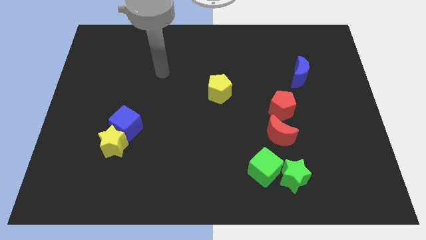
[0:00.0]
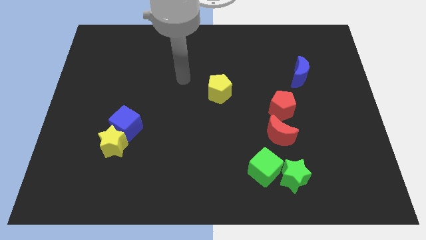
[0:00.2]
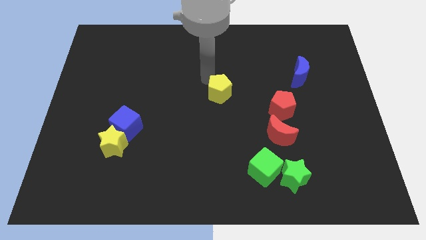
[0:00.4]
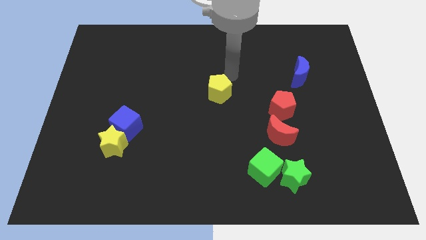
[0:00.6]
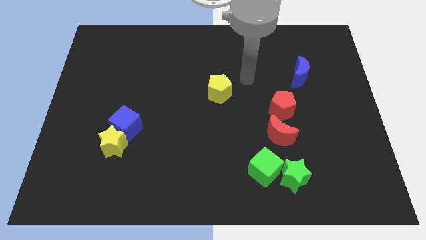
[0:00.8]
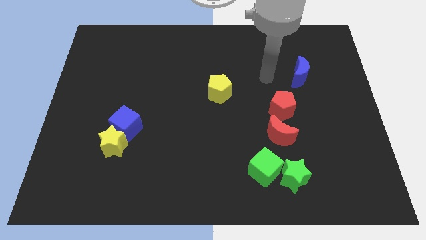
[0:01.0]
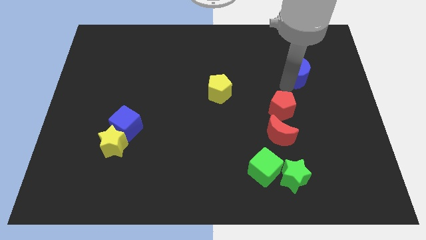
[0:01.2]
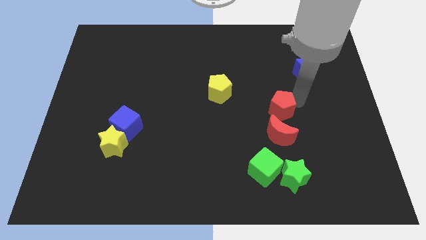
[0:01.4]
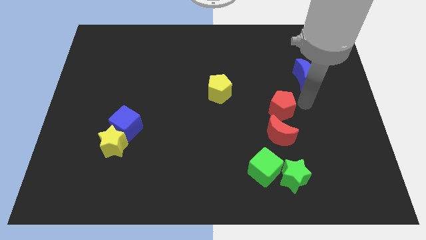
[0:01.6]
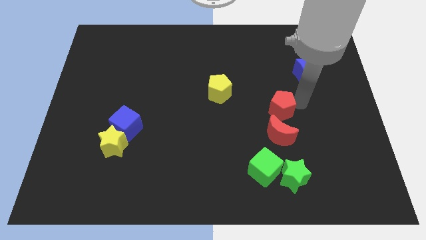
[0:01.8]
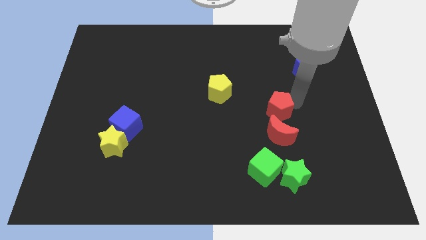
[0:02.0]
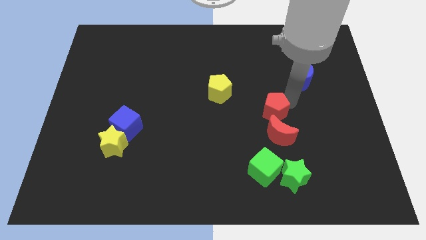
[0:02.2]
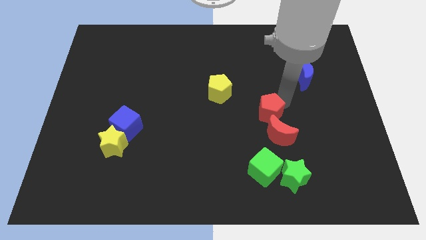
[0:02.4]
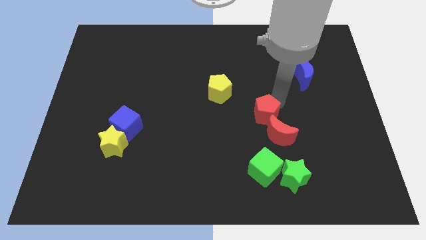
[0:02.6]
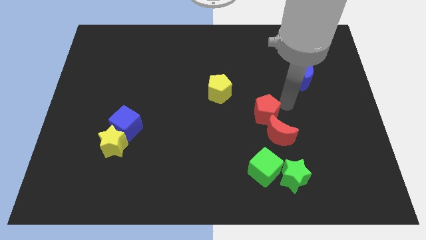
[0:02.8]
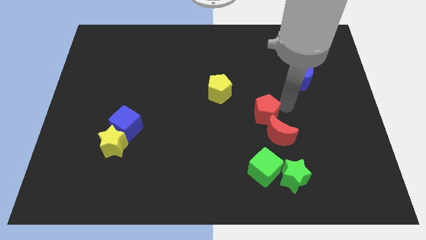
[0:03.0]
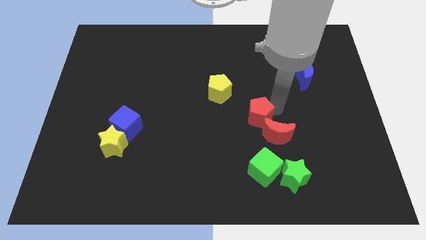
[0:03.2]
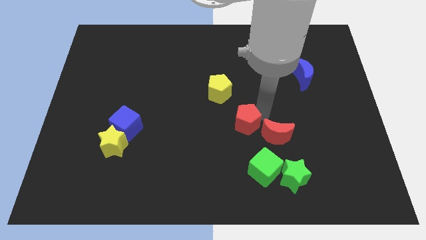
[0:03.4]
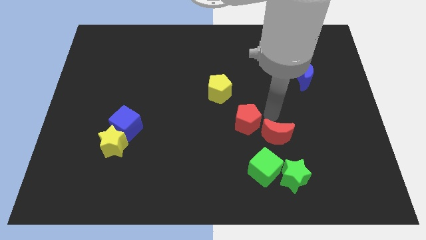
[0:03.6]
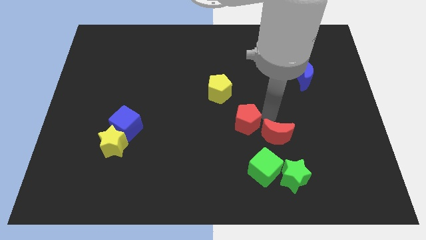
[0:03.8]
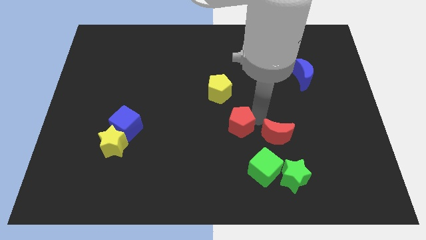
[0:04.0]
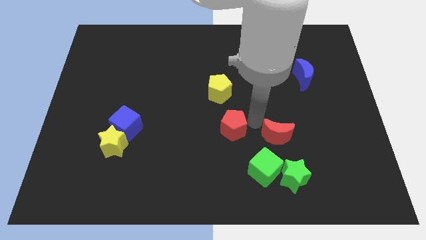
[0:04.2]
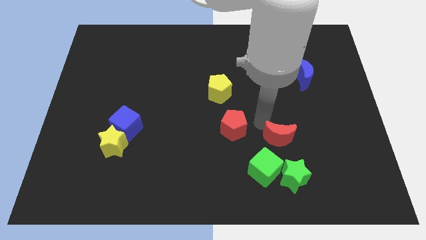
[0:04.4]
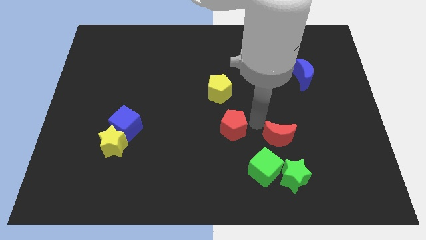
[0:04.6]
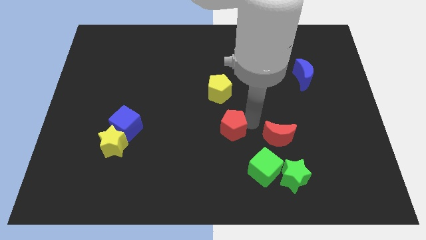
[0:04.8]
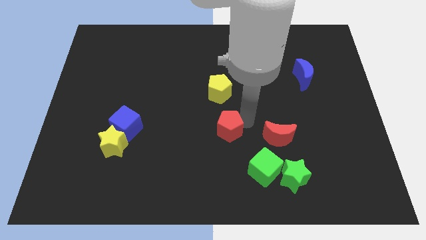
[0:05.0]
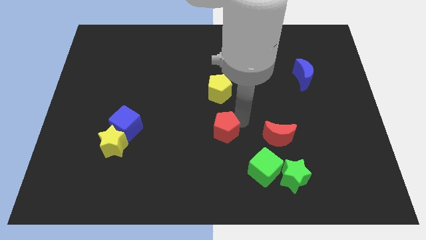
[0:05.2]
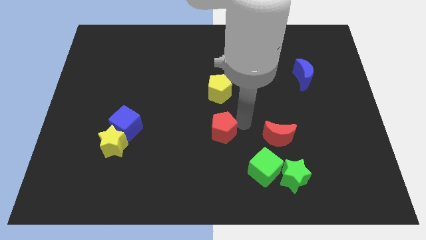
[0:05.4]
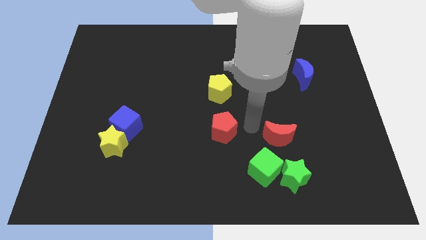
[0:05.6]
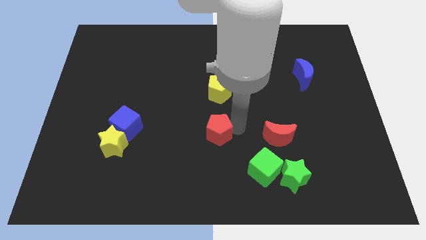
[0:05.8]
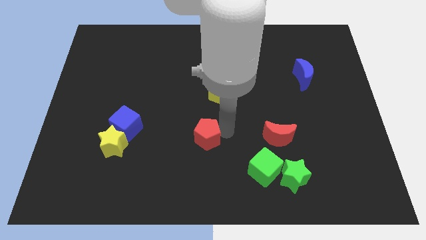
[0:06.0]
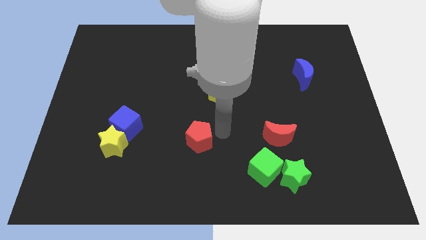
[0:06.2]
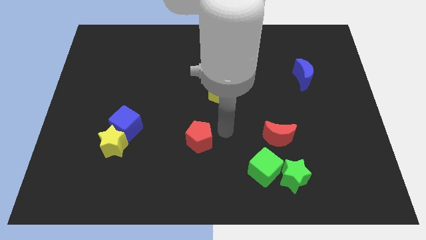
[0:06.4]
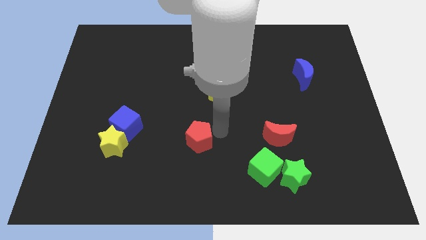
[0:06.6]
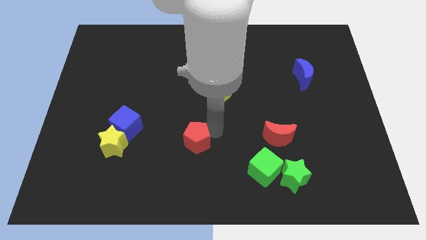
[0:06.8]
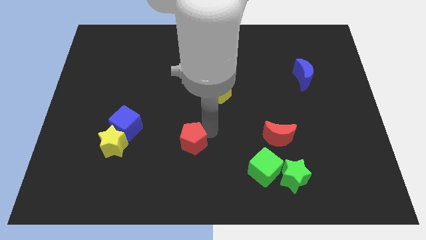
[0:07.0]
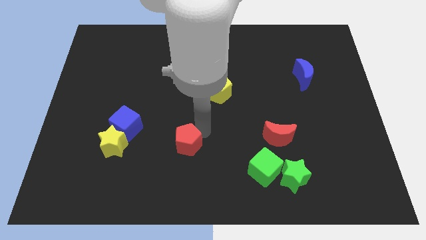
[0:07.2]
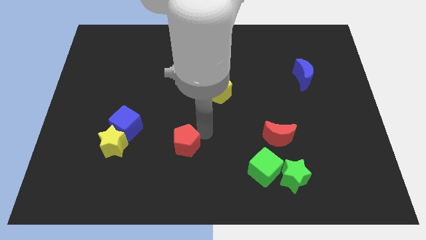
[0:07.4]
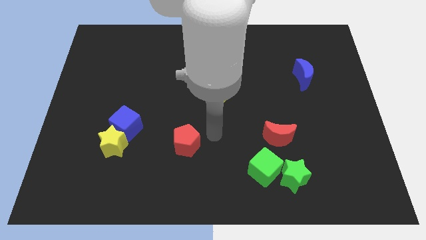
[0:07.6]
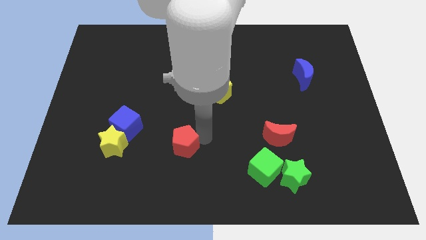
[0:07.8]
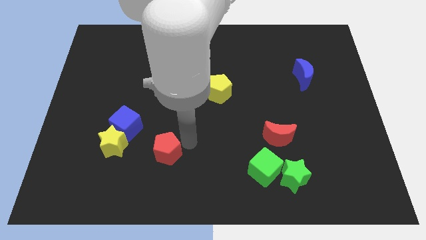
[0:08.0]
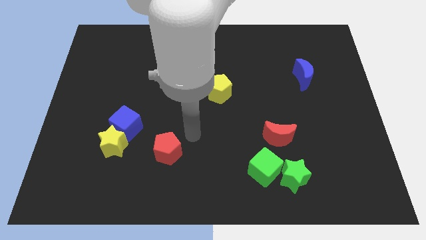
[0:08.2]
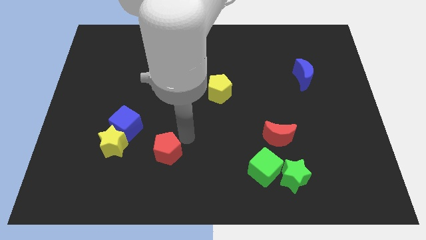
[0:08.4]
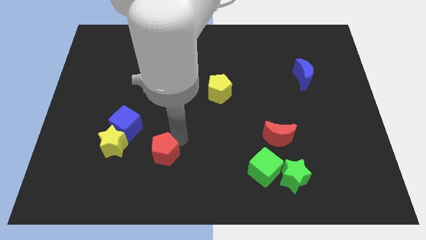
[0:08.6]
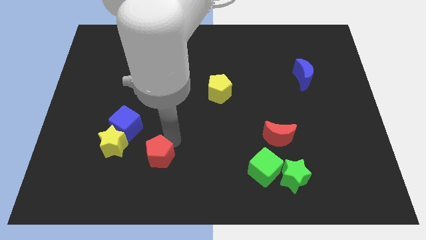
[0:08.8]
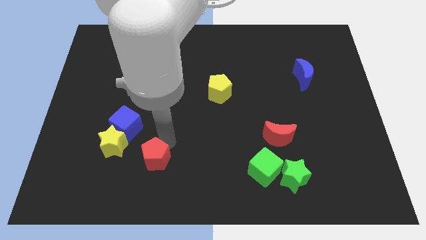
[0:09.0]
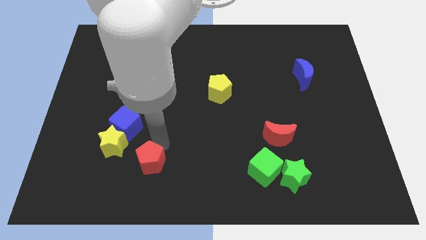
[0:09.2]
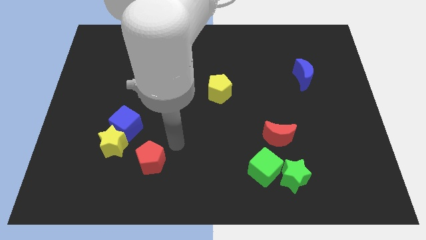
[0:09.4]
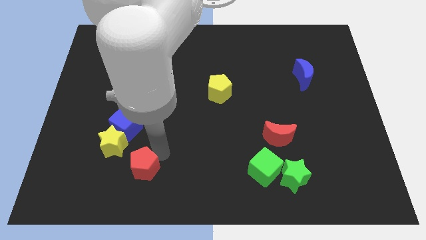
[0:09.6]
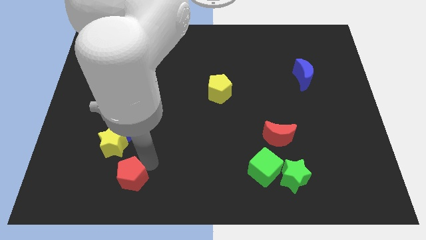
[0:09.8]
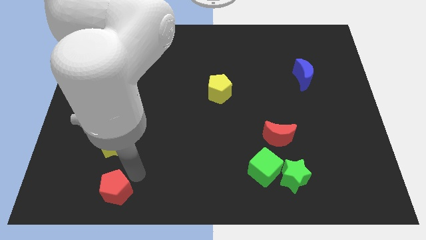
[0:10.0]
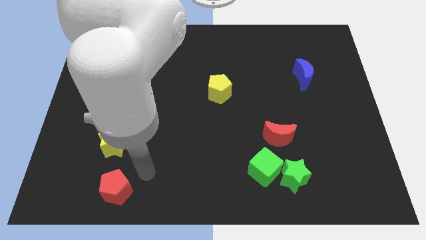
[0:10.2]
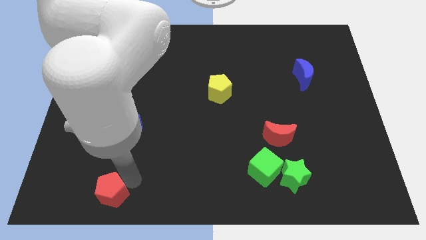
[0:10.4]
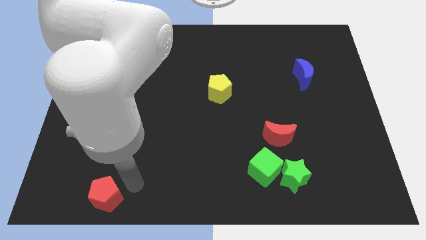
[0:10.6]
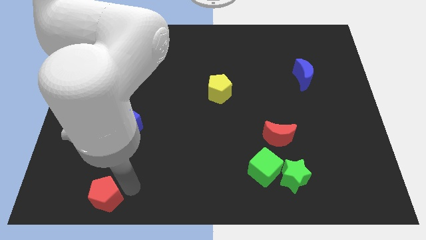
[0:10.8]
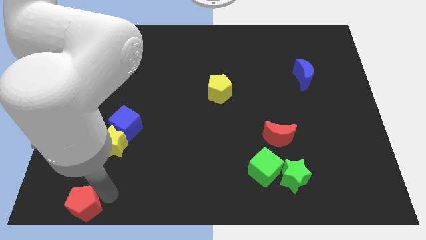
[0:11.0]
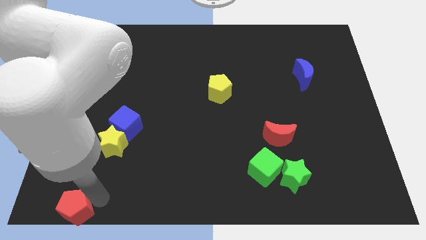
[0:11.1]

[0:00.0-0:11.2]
slide the red pentagon to the lower left corner

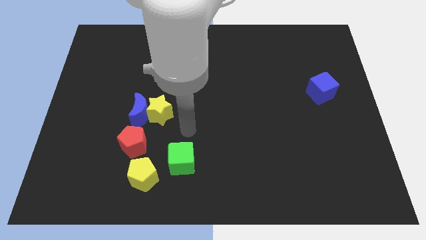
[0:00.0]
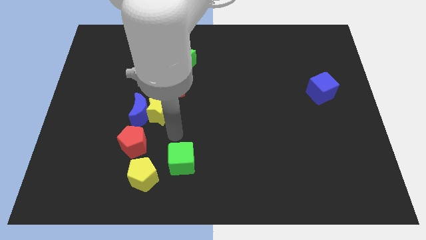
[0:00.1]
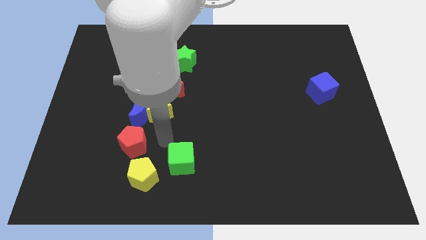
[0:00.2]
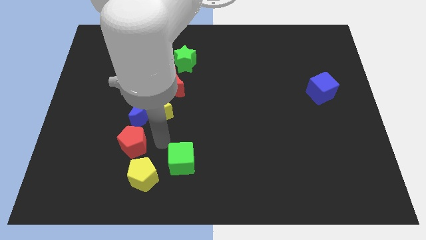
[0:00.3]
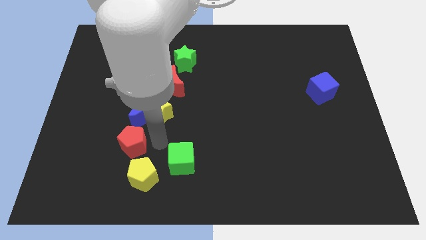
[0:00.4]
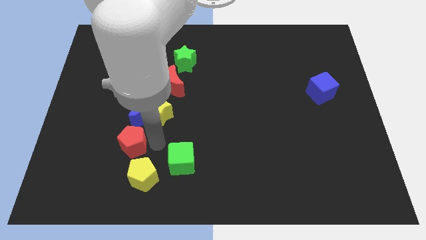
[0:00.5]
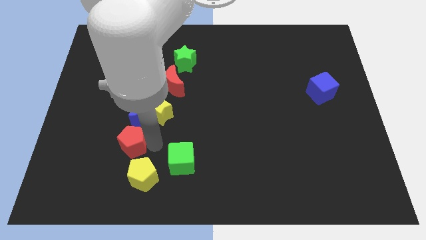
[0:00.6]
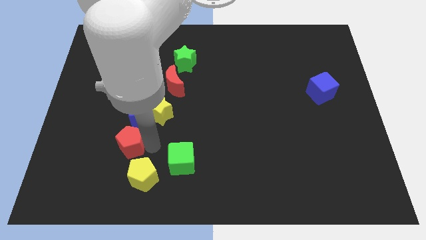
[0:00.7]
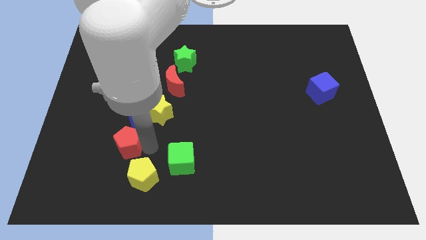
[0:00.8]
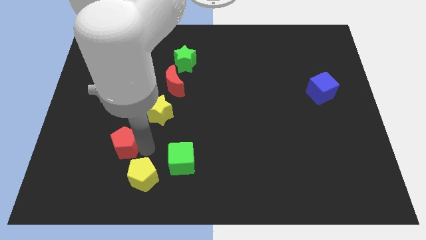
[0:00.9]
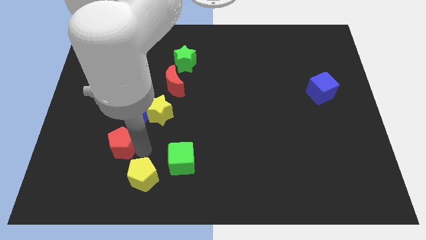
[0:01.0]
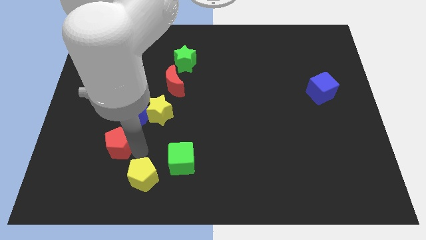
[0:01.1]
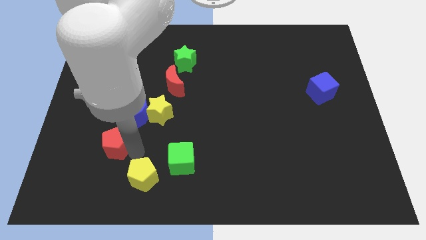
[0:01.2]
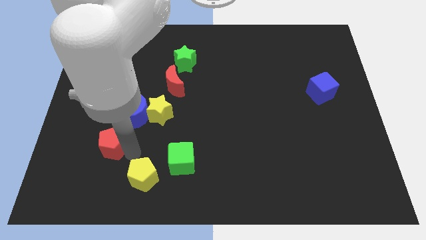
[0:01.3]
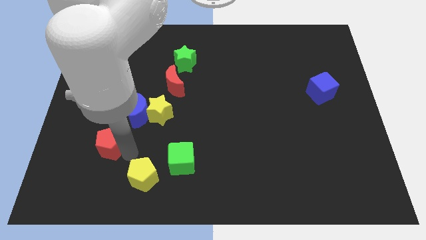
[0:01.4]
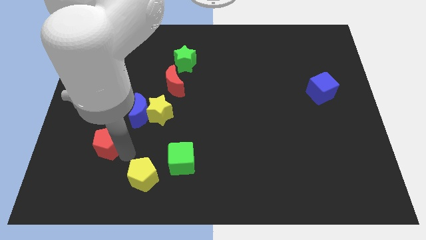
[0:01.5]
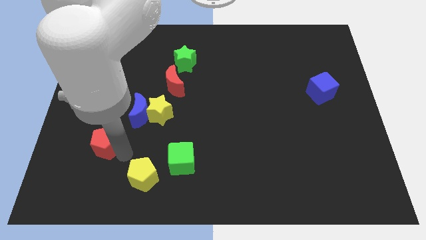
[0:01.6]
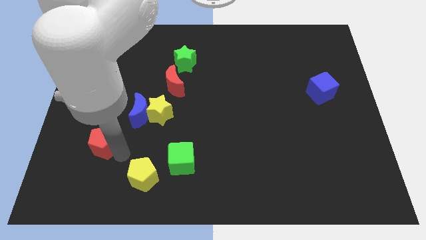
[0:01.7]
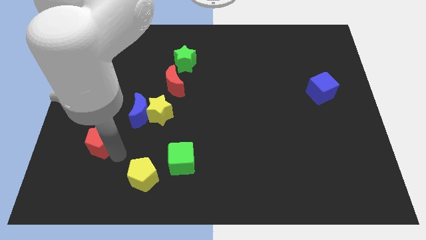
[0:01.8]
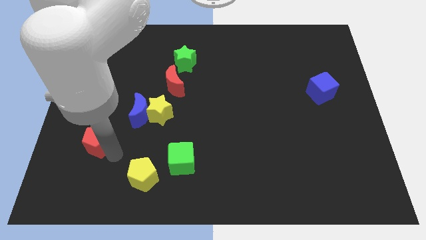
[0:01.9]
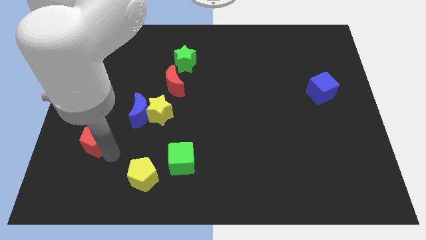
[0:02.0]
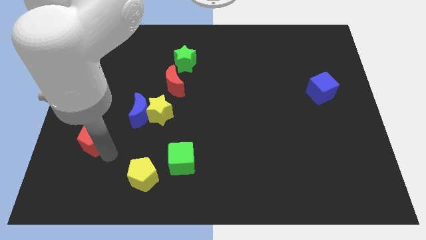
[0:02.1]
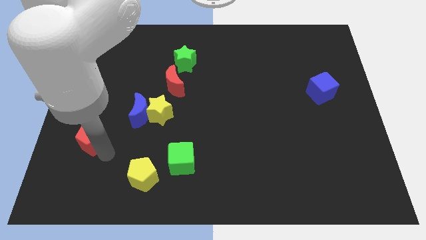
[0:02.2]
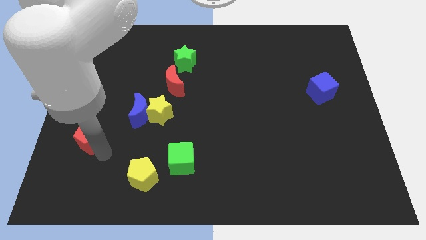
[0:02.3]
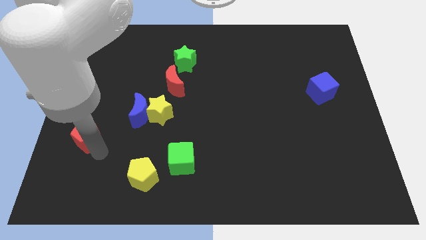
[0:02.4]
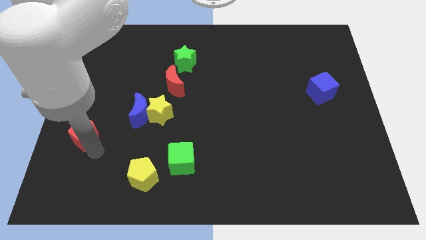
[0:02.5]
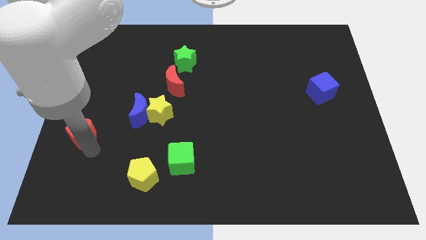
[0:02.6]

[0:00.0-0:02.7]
move the red pentagon to the left side
